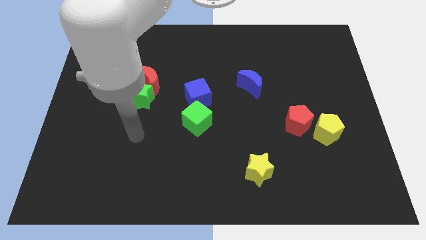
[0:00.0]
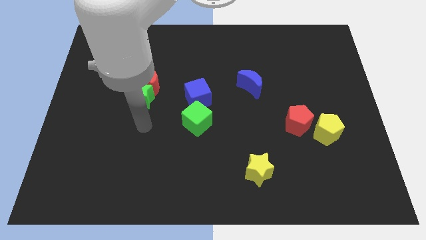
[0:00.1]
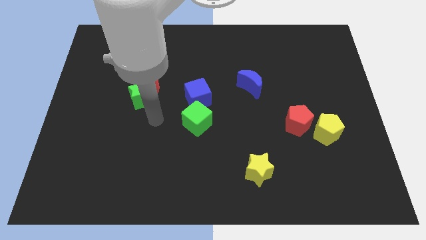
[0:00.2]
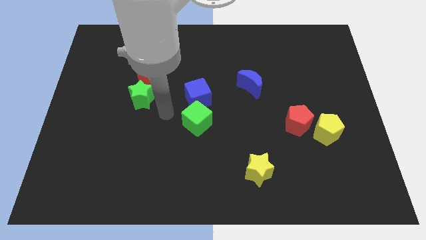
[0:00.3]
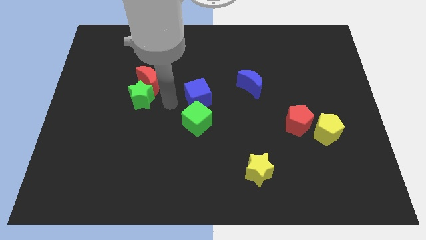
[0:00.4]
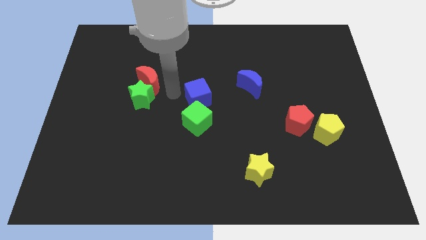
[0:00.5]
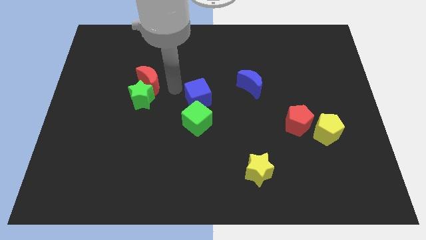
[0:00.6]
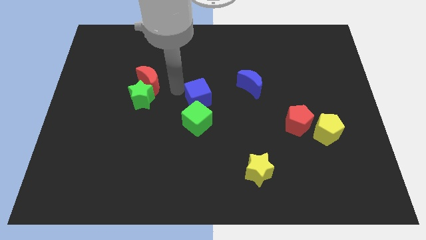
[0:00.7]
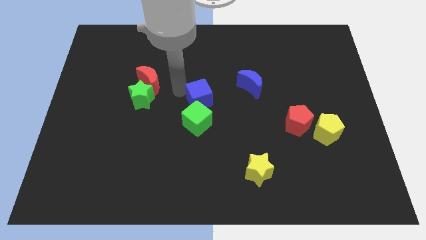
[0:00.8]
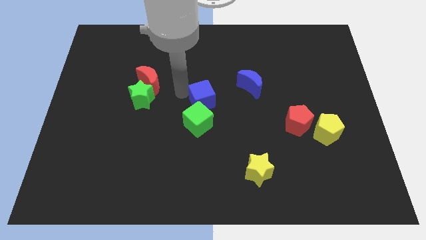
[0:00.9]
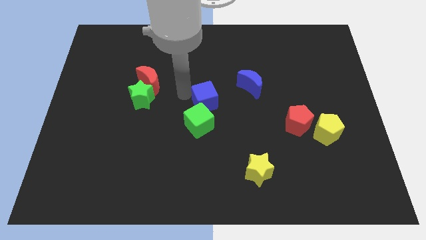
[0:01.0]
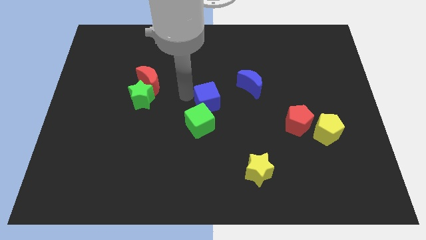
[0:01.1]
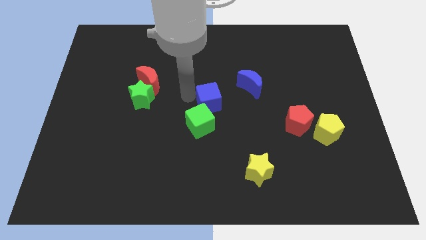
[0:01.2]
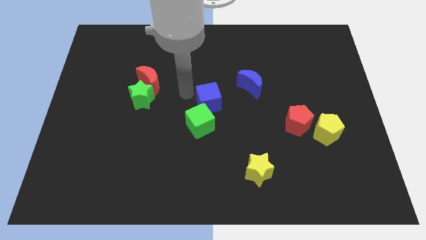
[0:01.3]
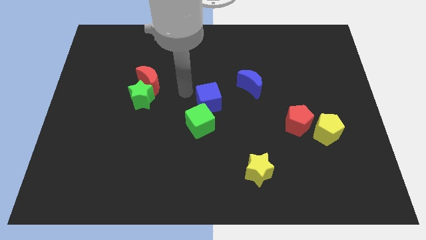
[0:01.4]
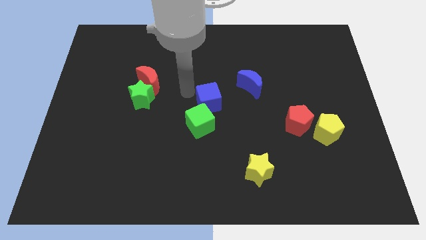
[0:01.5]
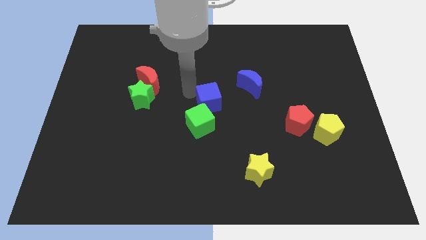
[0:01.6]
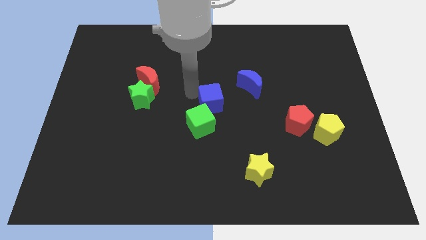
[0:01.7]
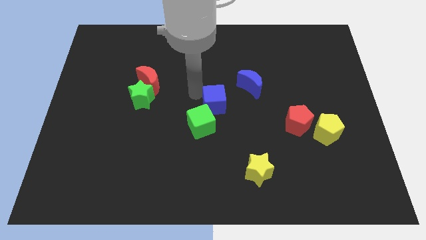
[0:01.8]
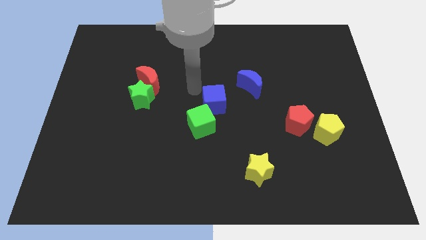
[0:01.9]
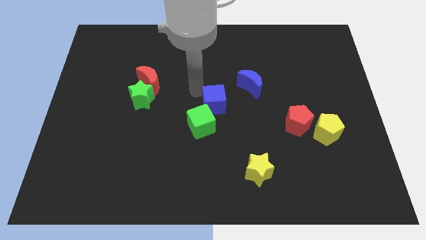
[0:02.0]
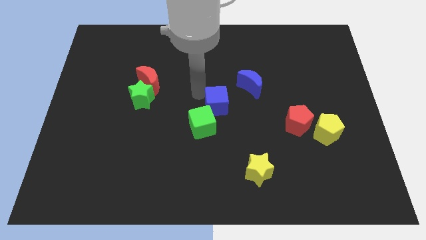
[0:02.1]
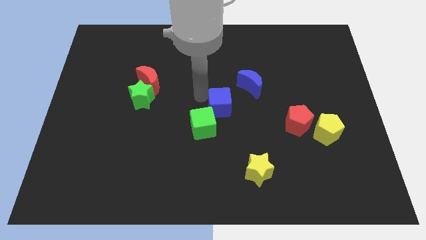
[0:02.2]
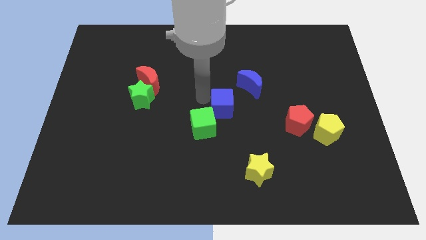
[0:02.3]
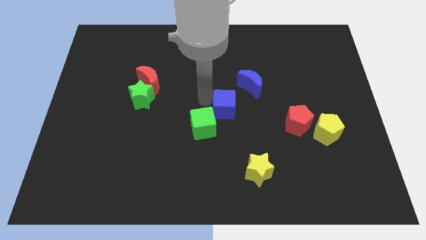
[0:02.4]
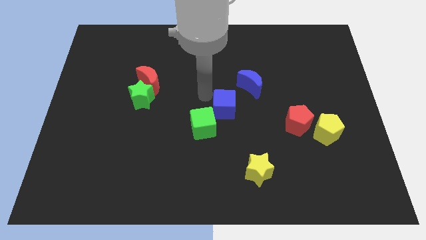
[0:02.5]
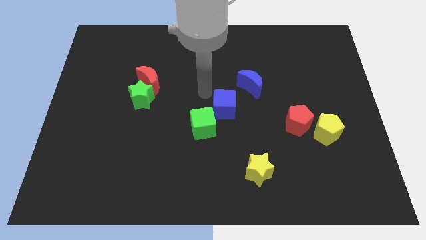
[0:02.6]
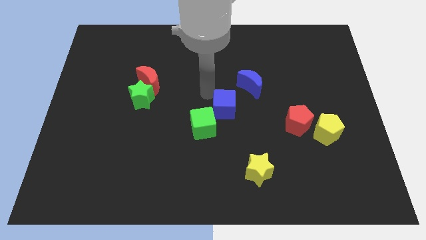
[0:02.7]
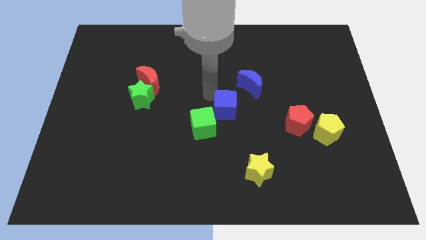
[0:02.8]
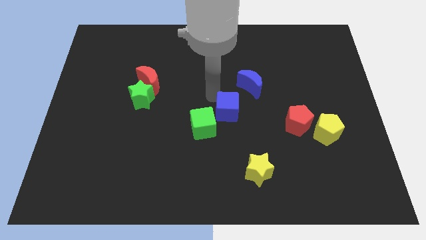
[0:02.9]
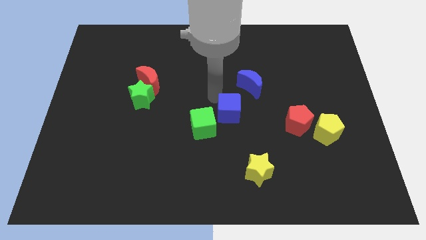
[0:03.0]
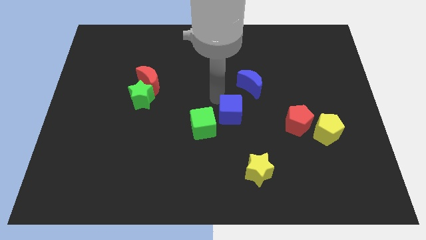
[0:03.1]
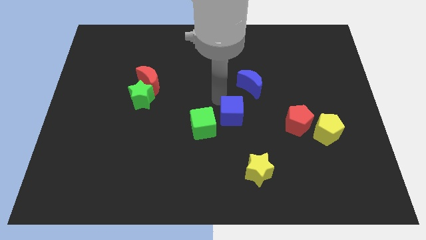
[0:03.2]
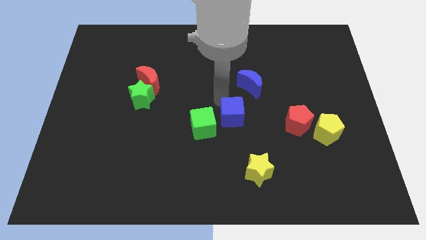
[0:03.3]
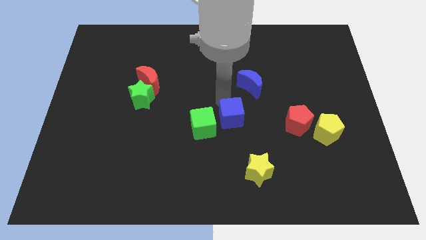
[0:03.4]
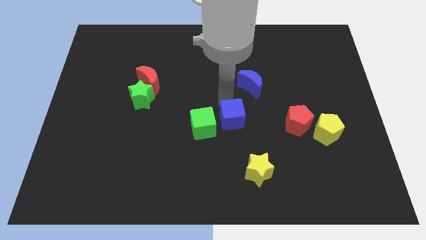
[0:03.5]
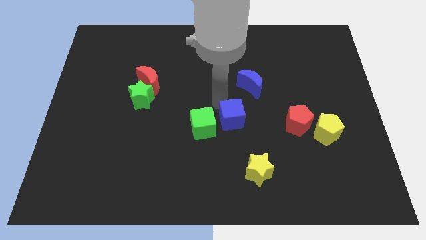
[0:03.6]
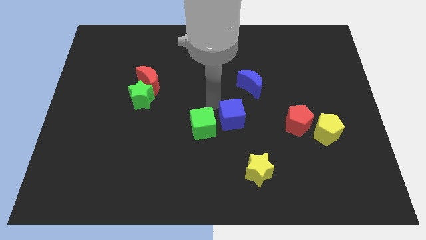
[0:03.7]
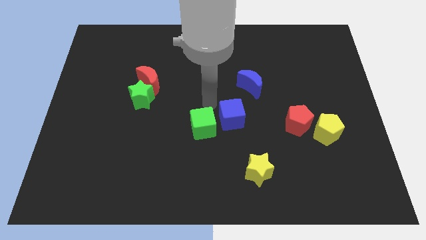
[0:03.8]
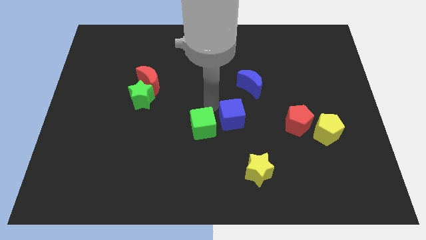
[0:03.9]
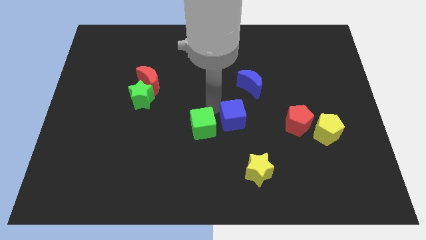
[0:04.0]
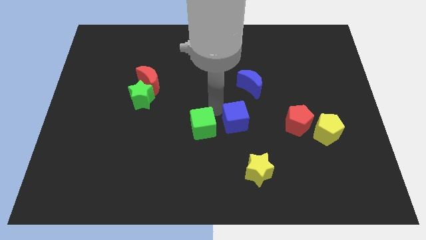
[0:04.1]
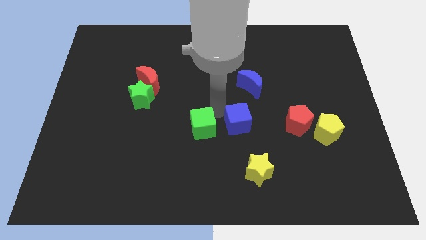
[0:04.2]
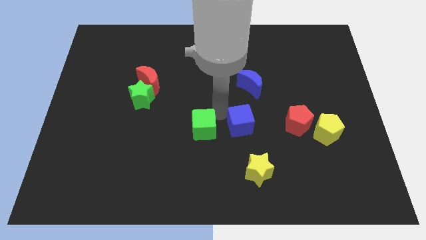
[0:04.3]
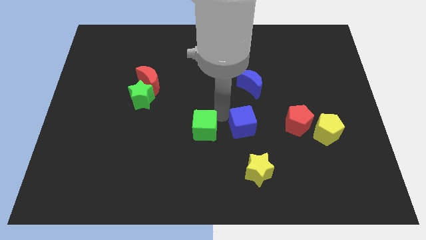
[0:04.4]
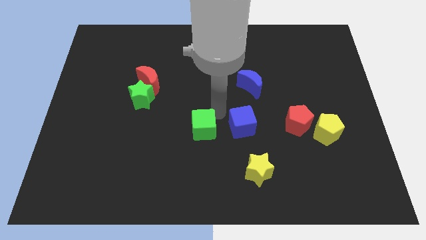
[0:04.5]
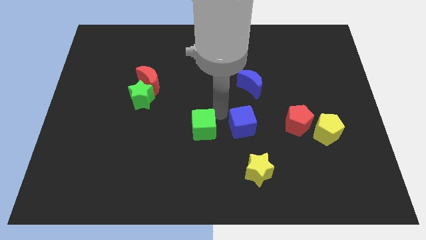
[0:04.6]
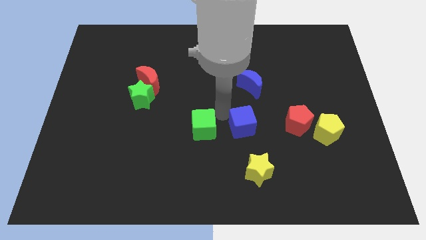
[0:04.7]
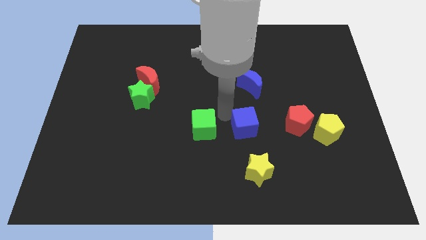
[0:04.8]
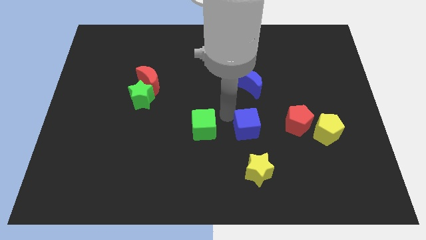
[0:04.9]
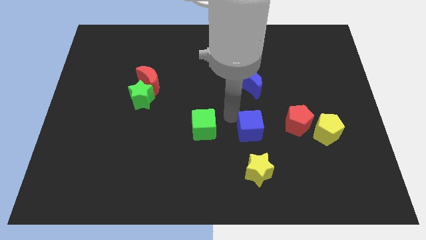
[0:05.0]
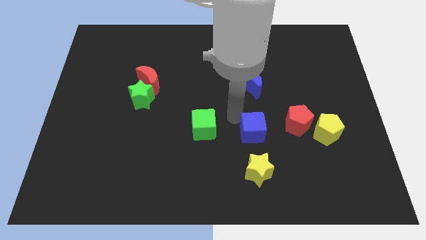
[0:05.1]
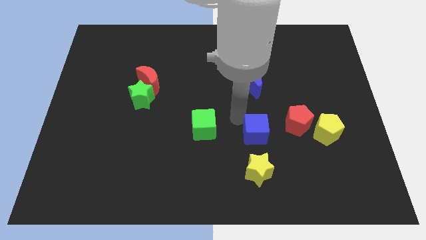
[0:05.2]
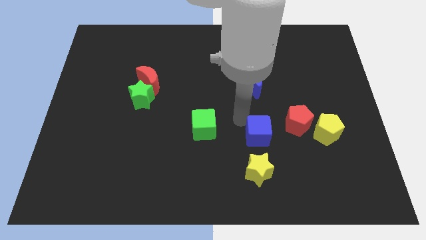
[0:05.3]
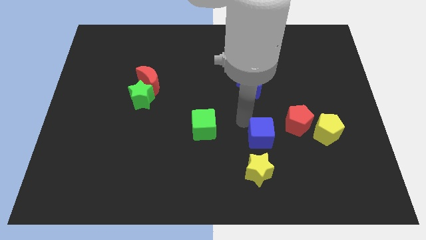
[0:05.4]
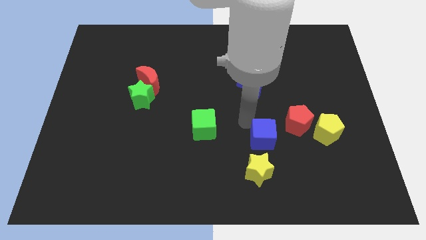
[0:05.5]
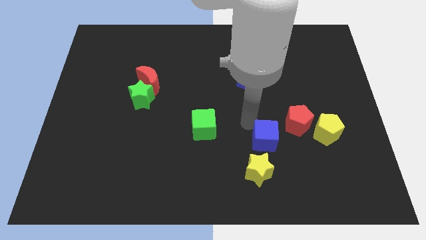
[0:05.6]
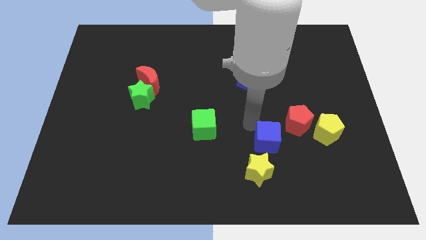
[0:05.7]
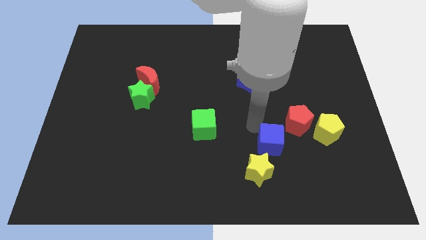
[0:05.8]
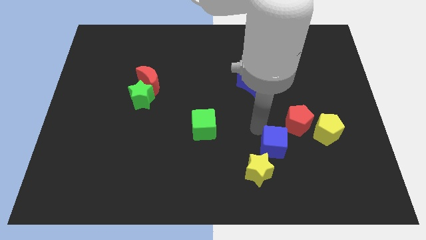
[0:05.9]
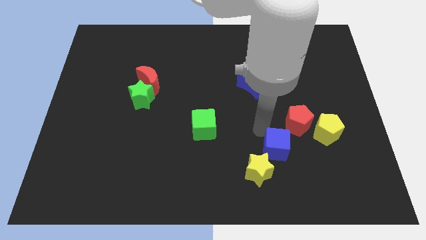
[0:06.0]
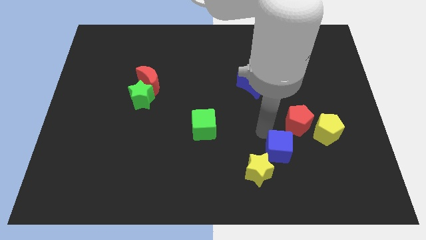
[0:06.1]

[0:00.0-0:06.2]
put the blue cube to the bottom side of the red pentagon
